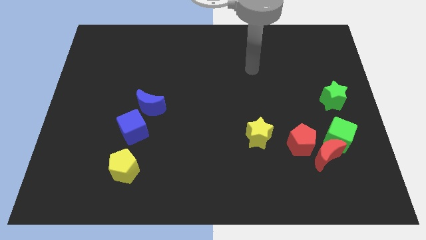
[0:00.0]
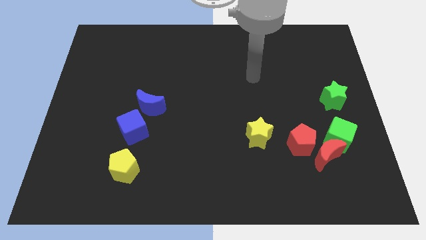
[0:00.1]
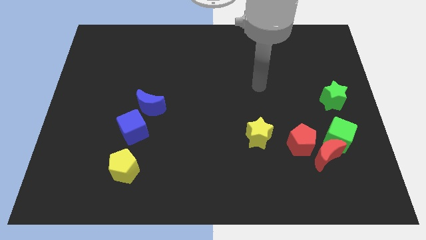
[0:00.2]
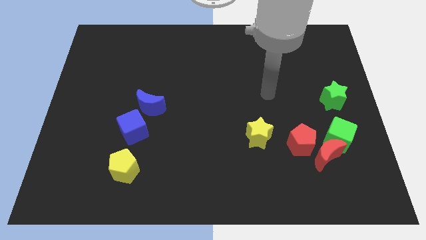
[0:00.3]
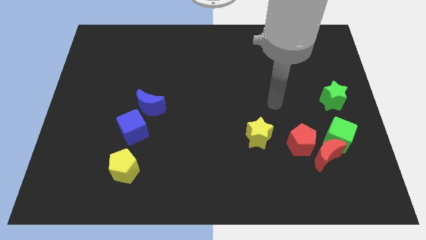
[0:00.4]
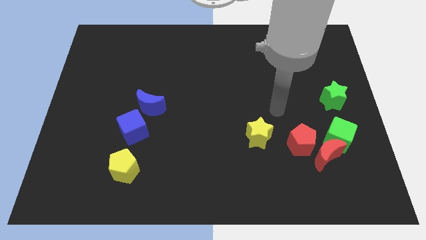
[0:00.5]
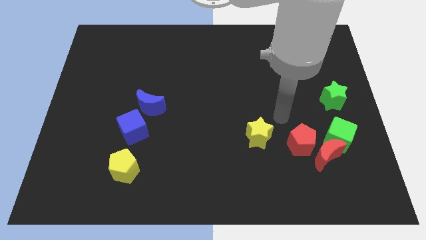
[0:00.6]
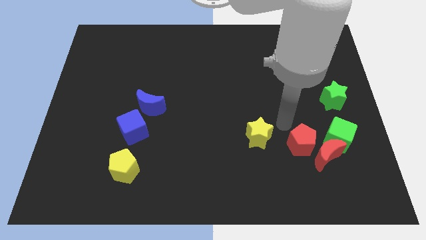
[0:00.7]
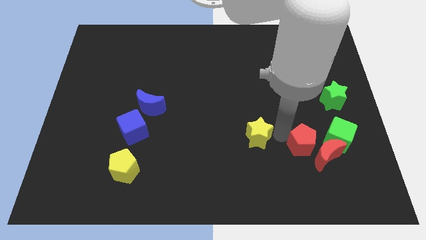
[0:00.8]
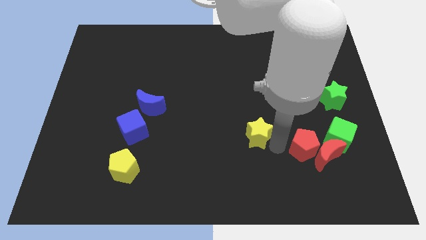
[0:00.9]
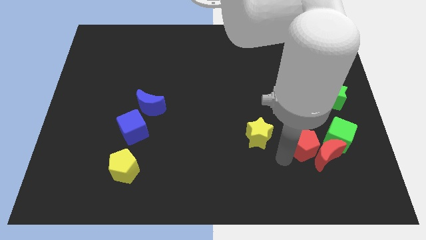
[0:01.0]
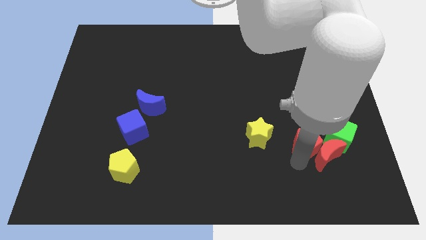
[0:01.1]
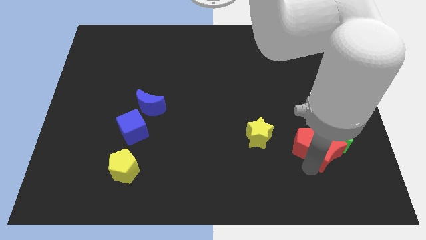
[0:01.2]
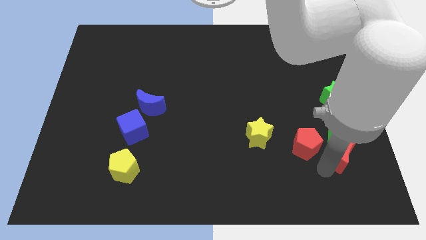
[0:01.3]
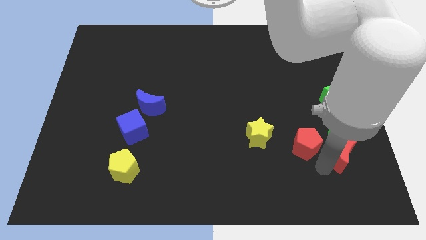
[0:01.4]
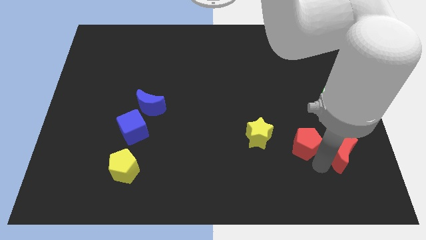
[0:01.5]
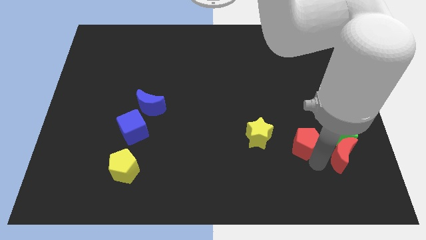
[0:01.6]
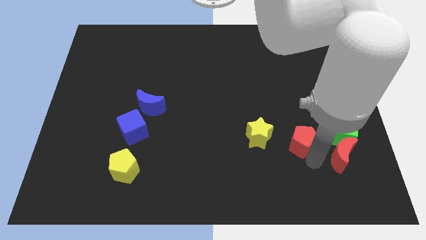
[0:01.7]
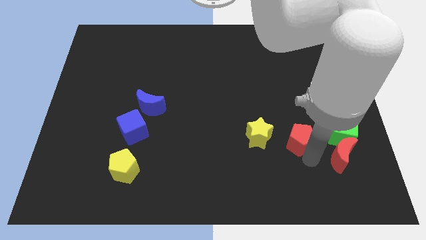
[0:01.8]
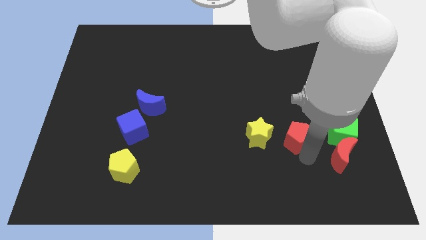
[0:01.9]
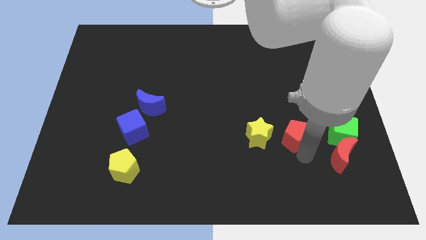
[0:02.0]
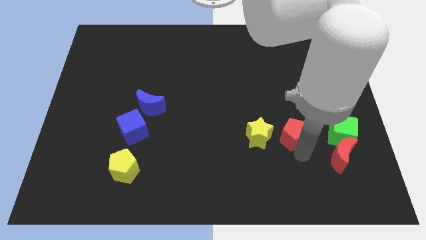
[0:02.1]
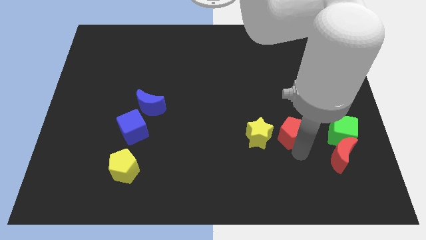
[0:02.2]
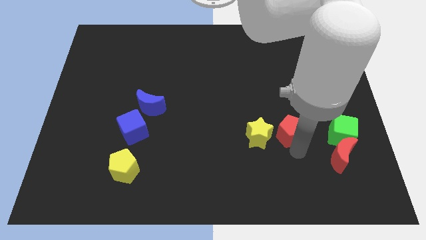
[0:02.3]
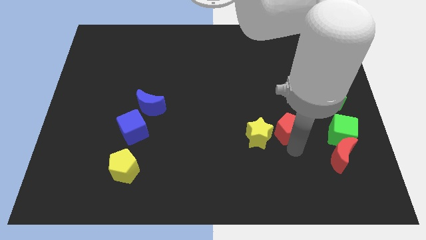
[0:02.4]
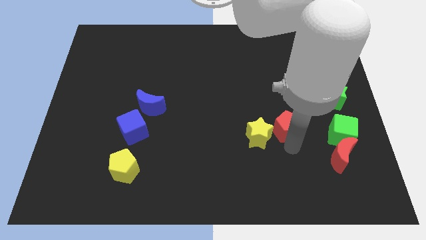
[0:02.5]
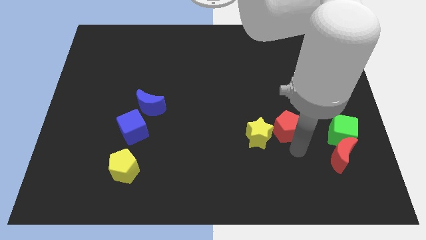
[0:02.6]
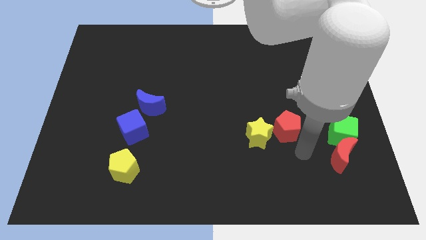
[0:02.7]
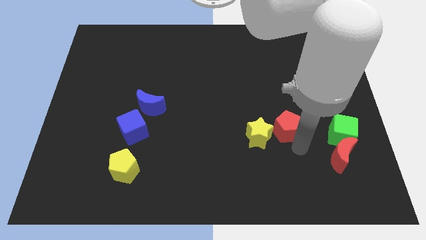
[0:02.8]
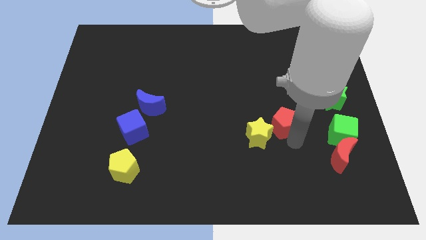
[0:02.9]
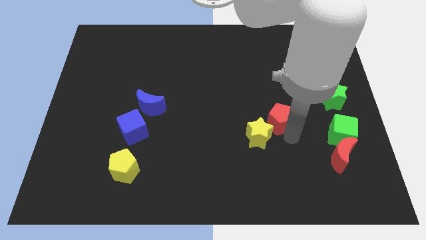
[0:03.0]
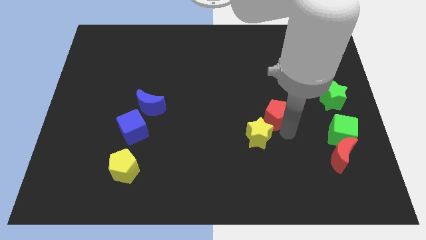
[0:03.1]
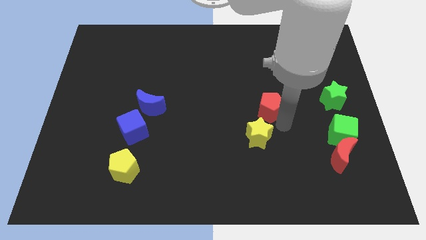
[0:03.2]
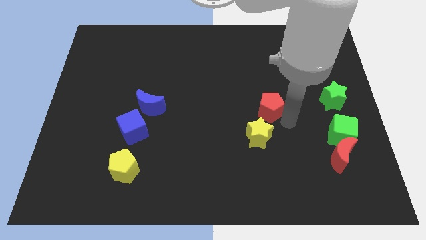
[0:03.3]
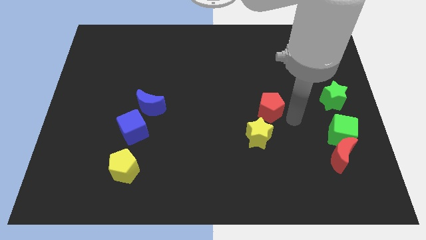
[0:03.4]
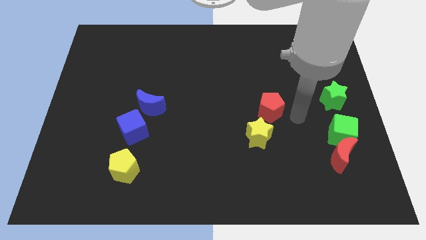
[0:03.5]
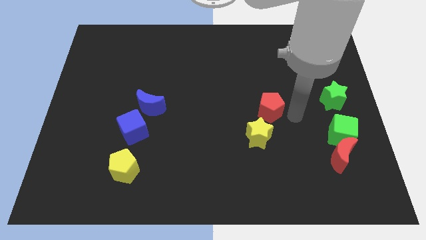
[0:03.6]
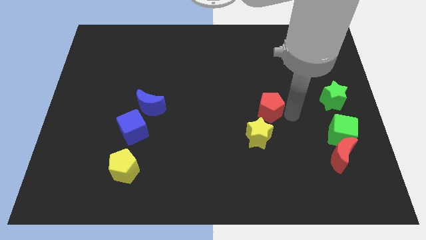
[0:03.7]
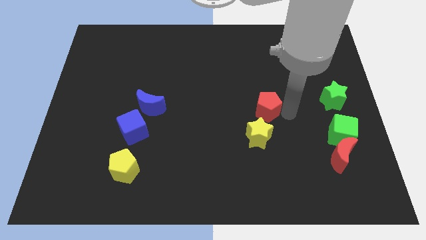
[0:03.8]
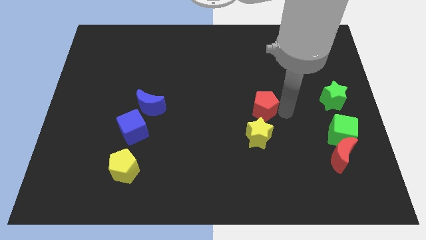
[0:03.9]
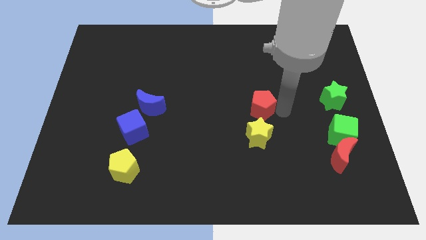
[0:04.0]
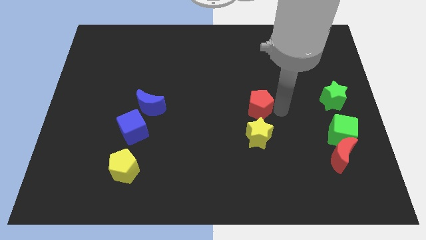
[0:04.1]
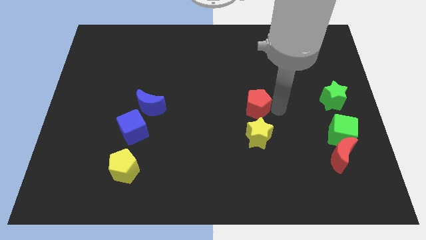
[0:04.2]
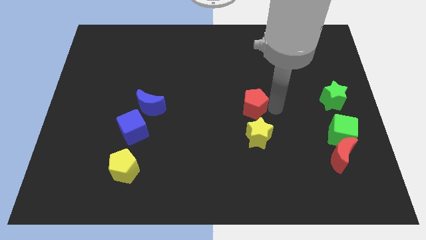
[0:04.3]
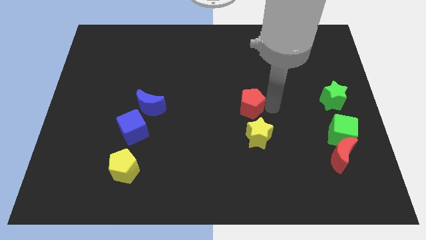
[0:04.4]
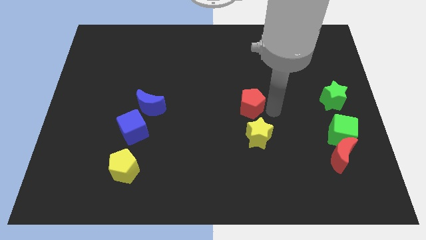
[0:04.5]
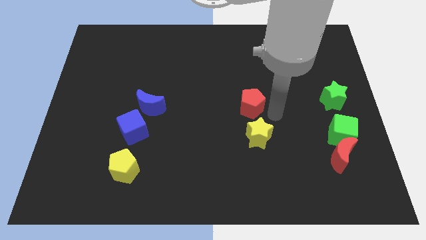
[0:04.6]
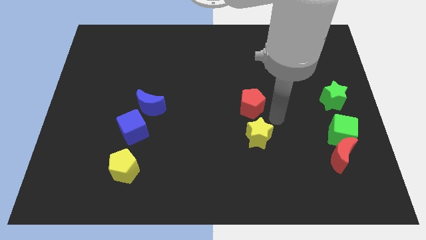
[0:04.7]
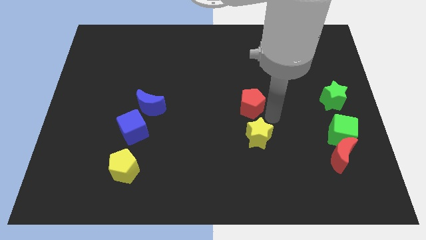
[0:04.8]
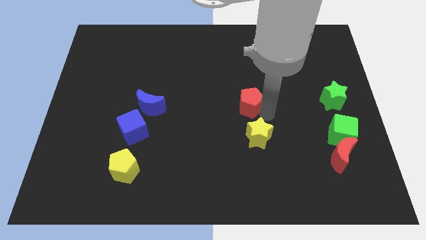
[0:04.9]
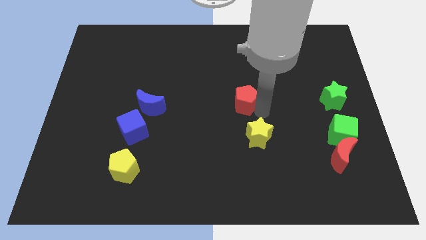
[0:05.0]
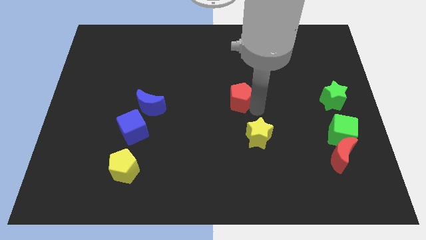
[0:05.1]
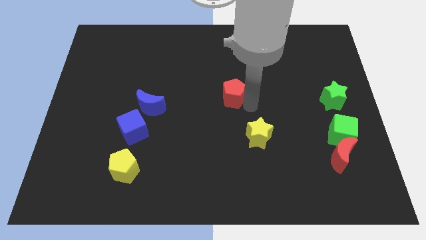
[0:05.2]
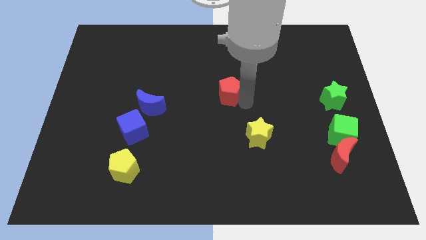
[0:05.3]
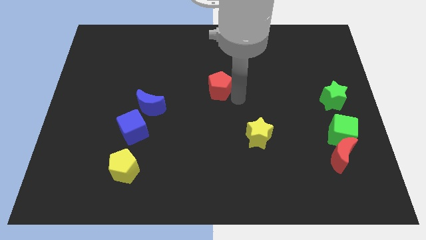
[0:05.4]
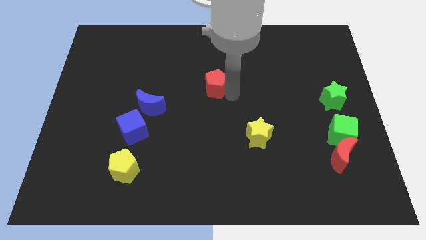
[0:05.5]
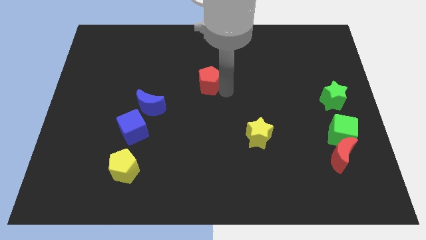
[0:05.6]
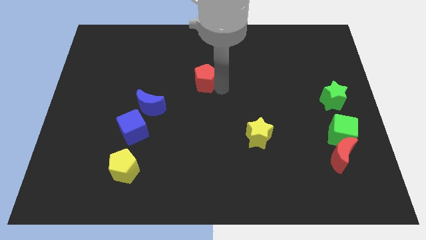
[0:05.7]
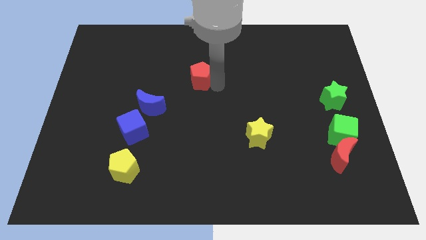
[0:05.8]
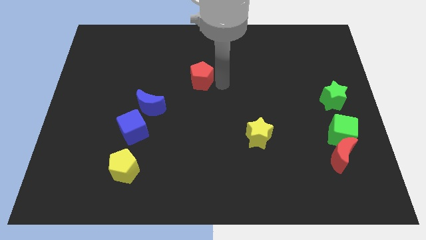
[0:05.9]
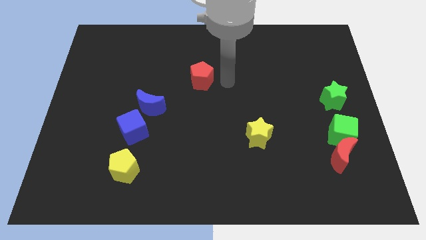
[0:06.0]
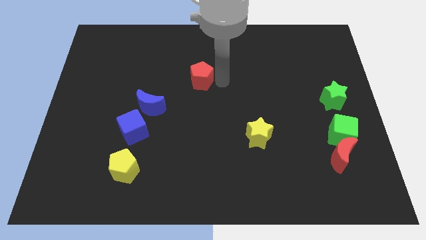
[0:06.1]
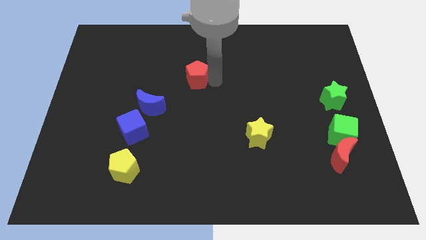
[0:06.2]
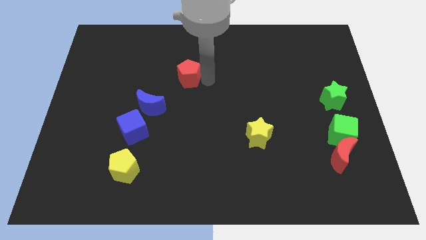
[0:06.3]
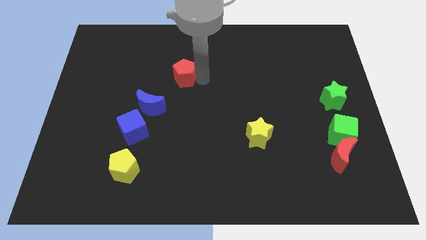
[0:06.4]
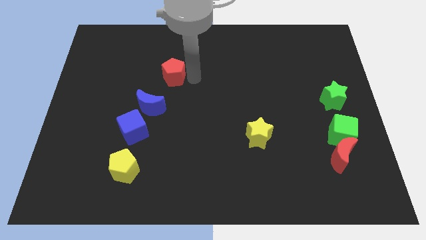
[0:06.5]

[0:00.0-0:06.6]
move the red pentagon above the blue moon
